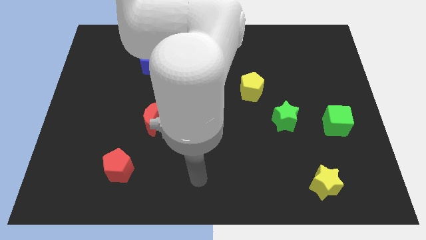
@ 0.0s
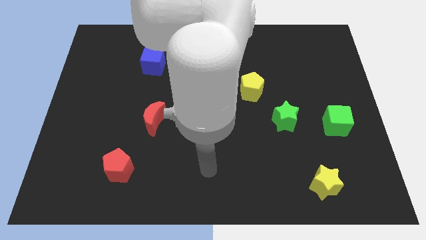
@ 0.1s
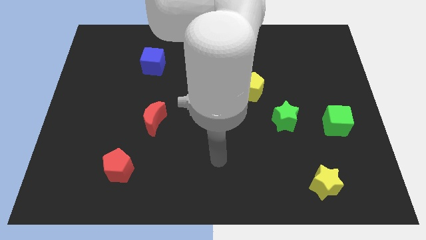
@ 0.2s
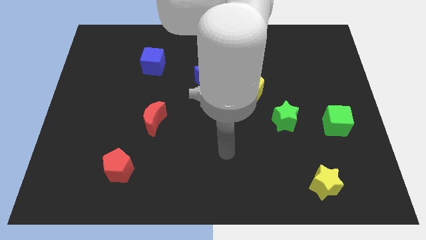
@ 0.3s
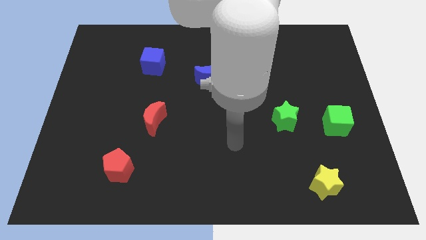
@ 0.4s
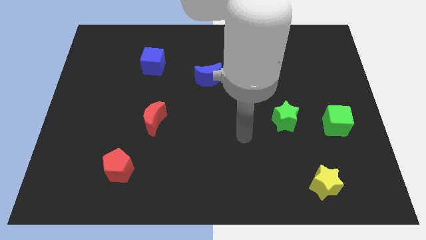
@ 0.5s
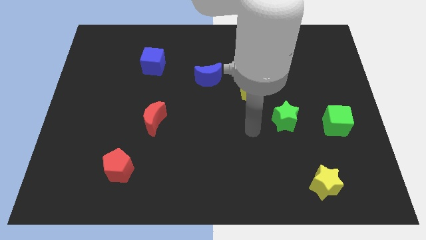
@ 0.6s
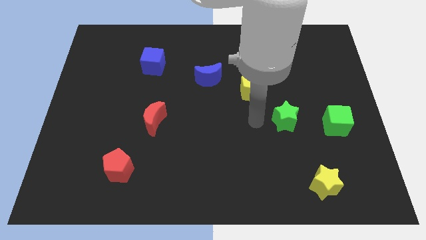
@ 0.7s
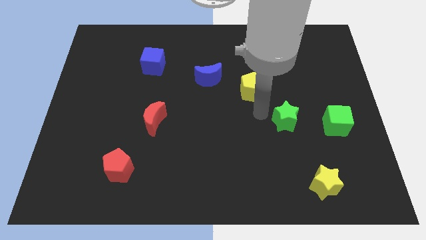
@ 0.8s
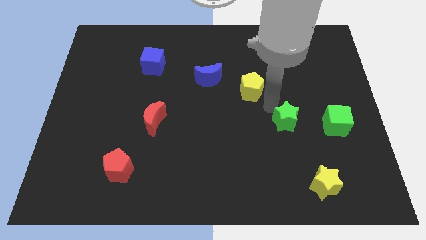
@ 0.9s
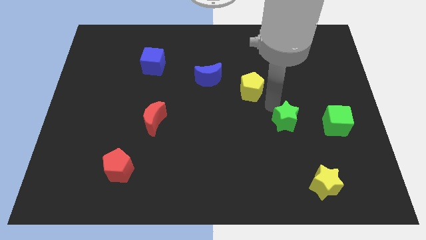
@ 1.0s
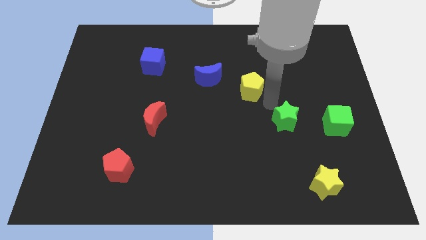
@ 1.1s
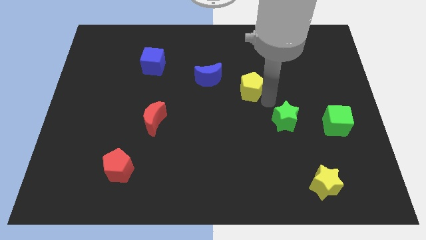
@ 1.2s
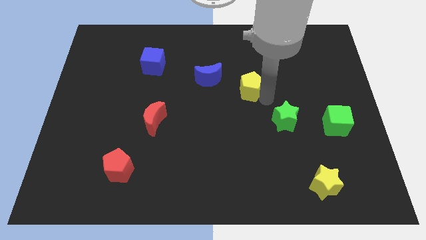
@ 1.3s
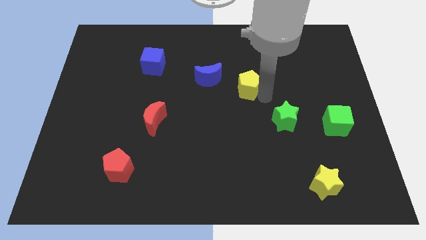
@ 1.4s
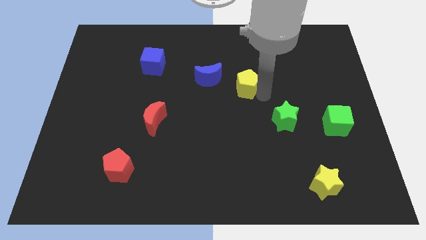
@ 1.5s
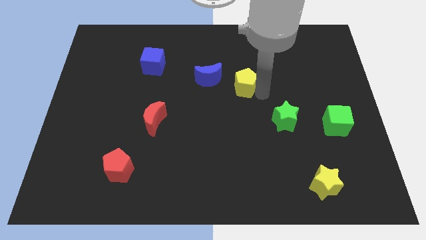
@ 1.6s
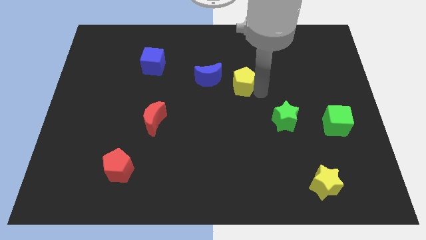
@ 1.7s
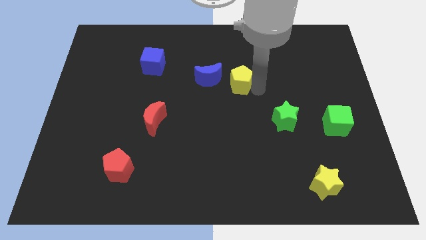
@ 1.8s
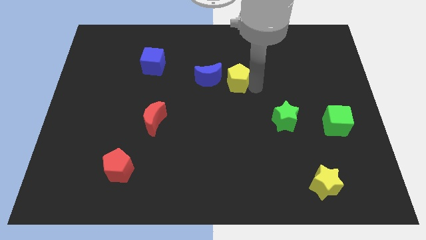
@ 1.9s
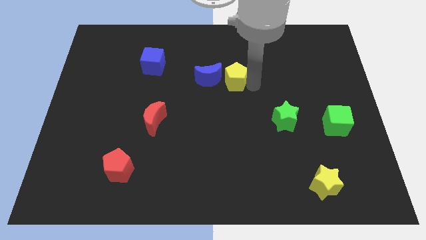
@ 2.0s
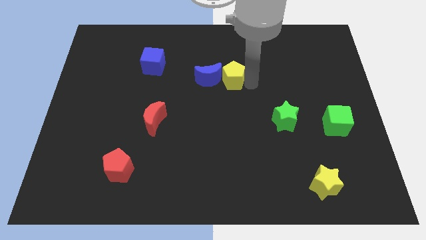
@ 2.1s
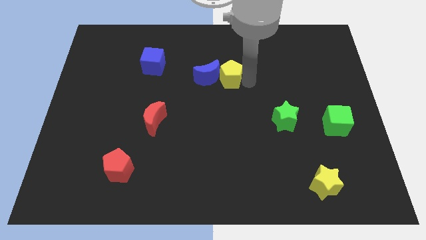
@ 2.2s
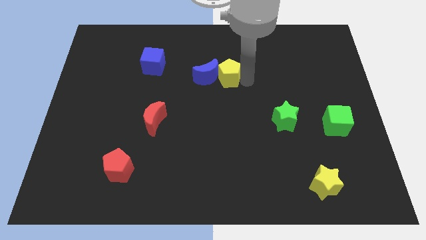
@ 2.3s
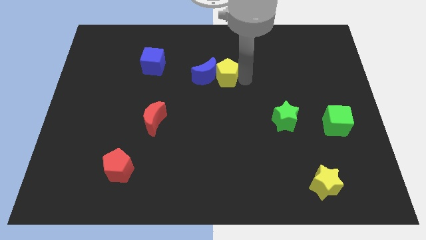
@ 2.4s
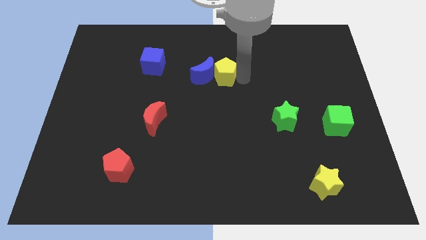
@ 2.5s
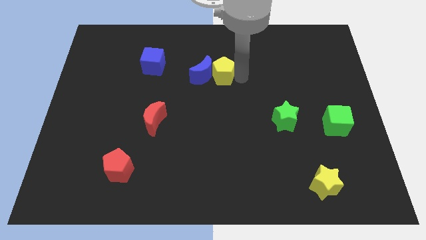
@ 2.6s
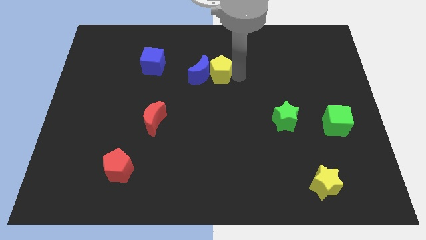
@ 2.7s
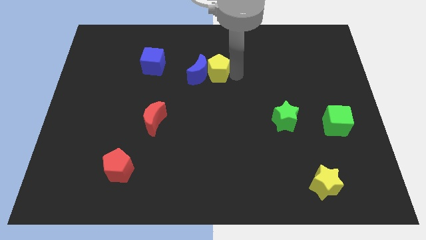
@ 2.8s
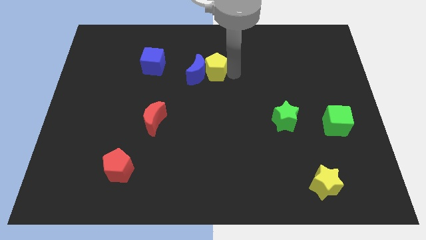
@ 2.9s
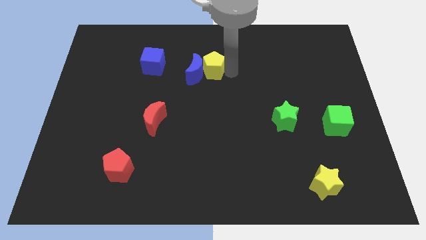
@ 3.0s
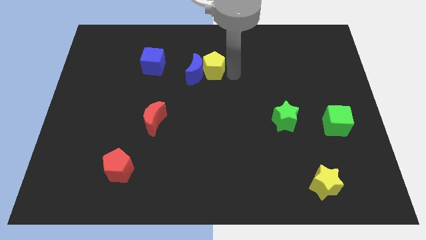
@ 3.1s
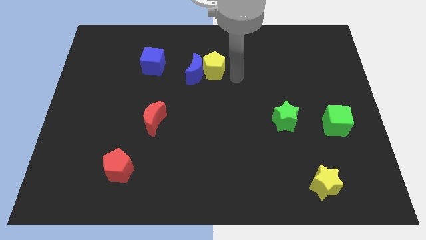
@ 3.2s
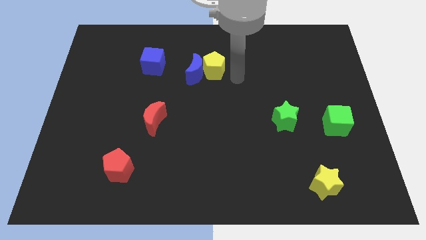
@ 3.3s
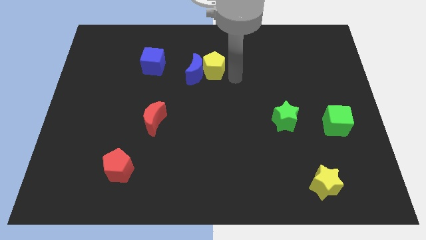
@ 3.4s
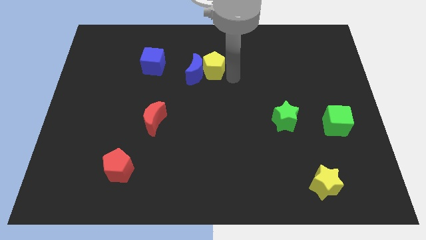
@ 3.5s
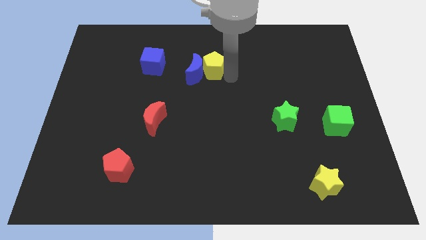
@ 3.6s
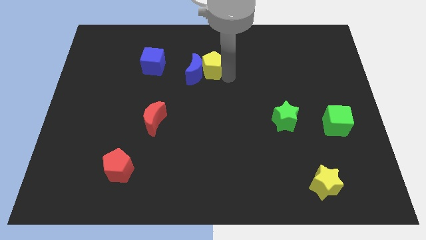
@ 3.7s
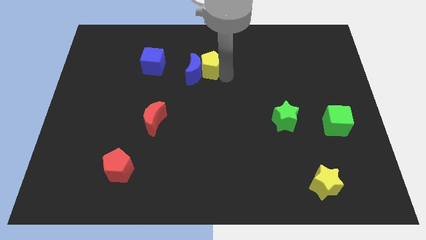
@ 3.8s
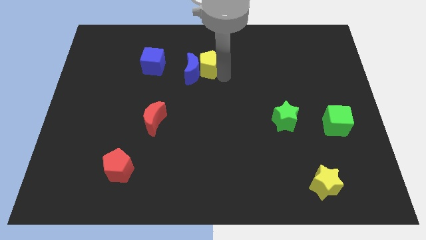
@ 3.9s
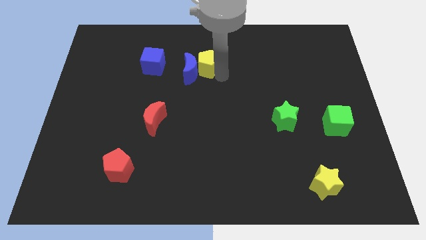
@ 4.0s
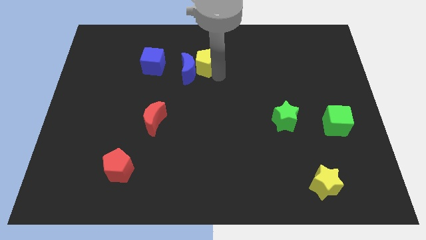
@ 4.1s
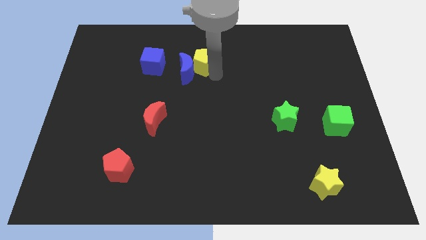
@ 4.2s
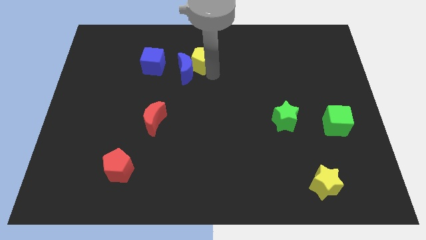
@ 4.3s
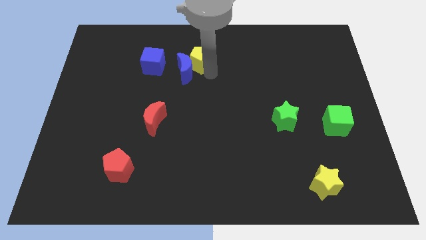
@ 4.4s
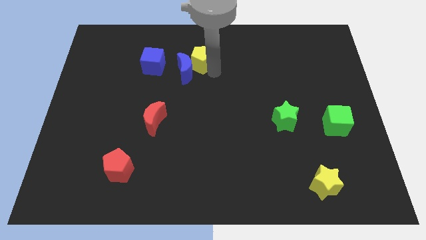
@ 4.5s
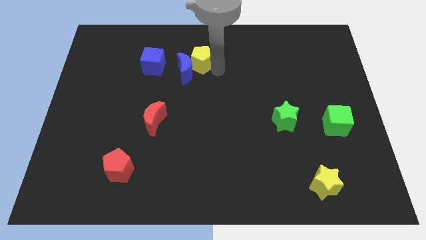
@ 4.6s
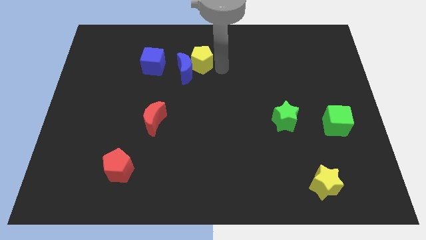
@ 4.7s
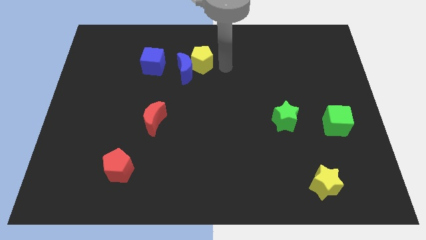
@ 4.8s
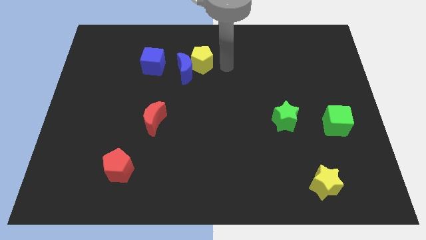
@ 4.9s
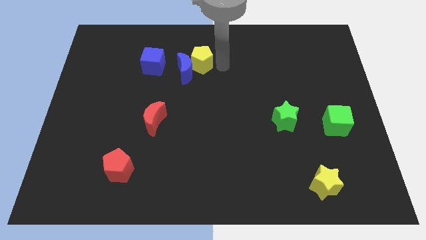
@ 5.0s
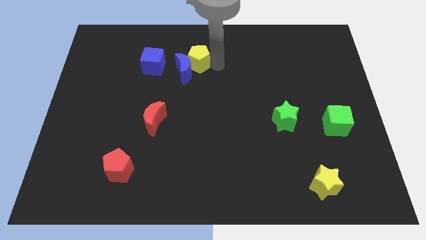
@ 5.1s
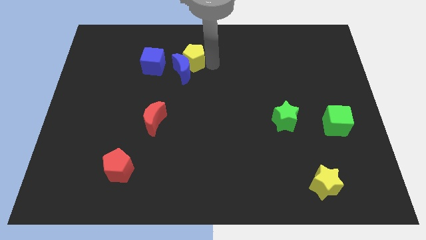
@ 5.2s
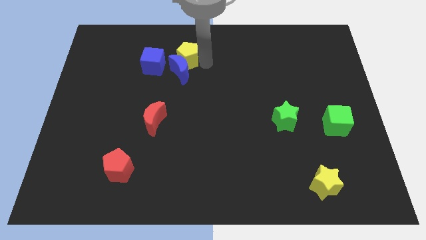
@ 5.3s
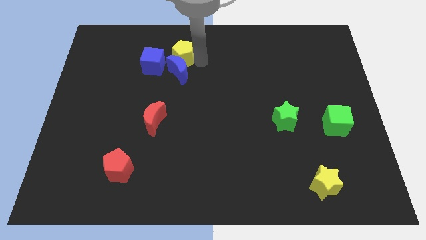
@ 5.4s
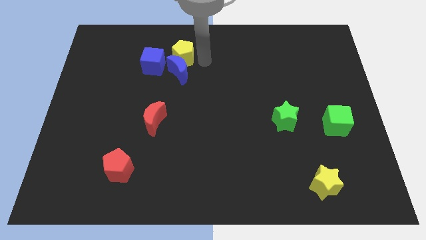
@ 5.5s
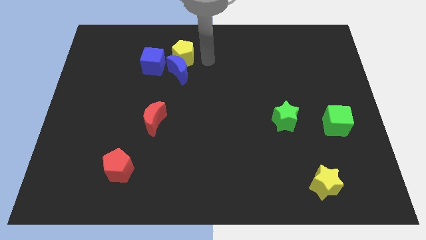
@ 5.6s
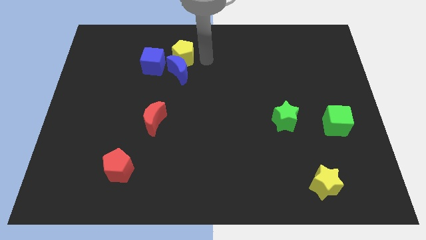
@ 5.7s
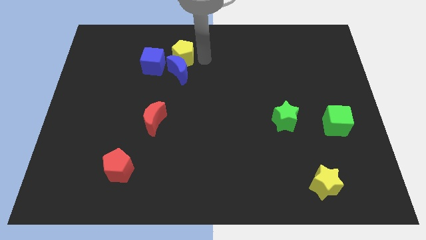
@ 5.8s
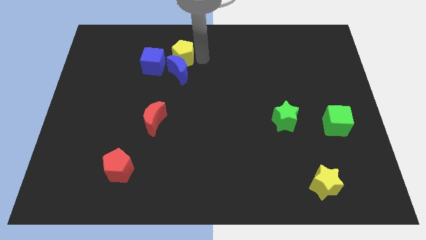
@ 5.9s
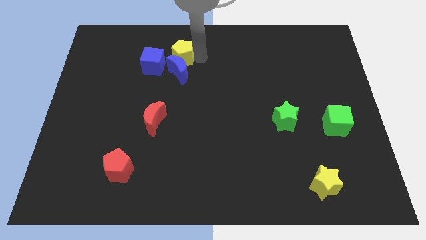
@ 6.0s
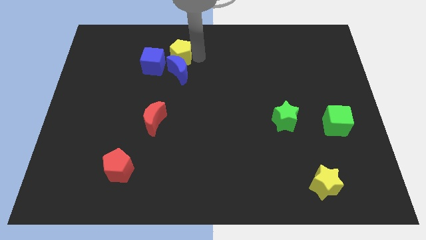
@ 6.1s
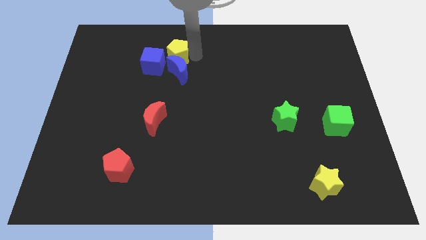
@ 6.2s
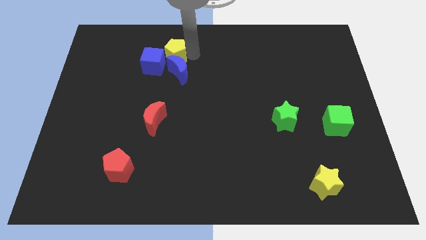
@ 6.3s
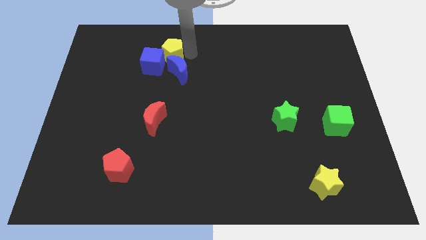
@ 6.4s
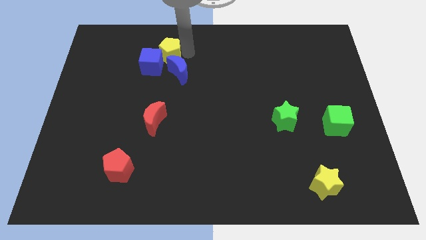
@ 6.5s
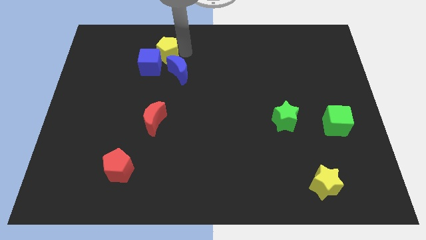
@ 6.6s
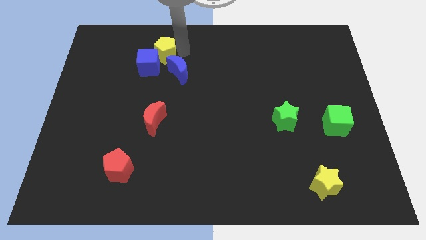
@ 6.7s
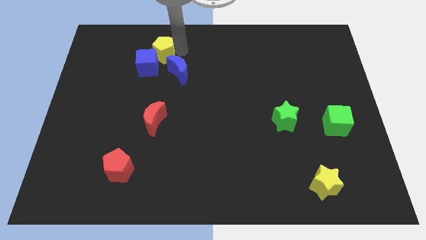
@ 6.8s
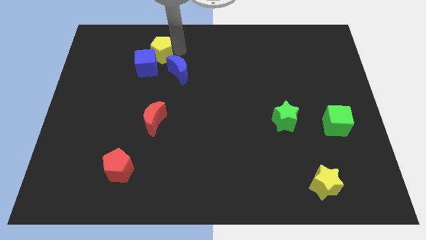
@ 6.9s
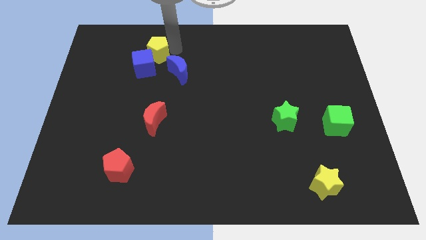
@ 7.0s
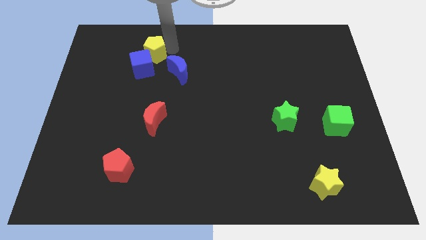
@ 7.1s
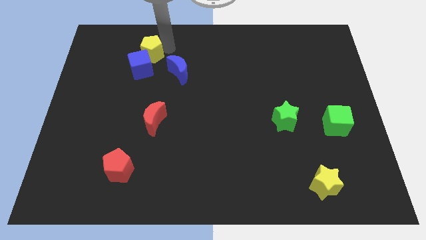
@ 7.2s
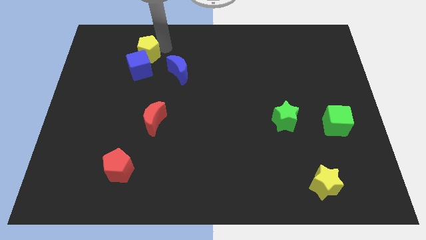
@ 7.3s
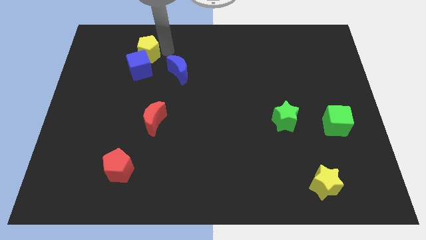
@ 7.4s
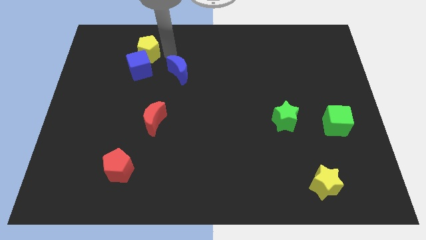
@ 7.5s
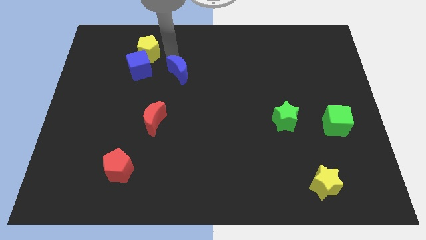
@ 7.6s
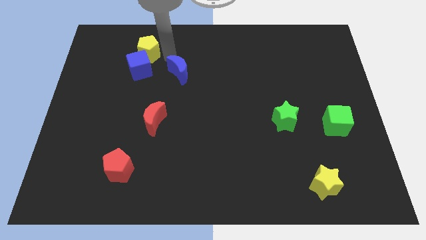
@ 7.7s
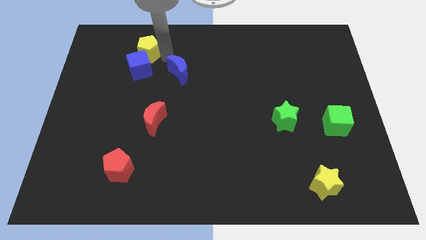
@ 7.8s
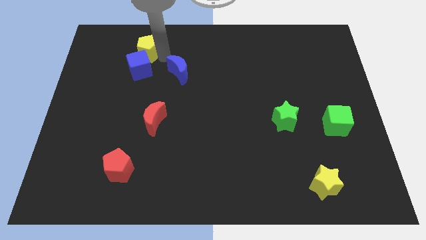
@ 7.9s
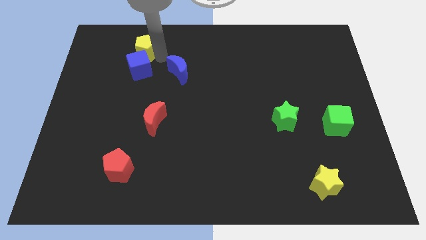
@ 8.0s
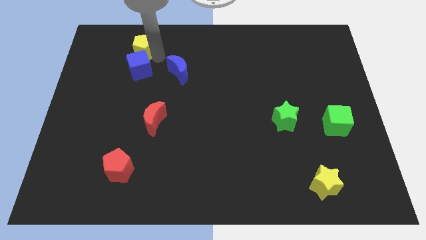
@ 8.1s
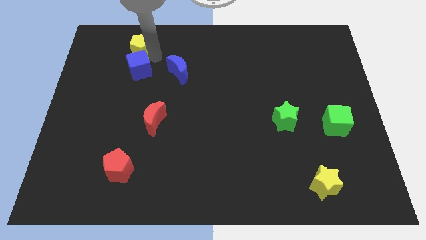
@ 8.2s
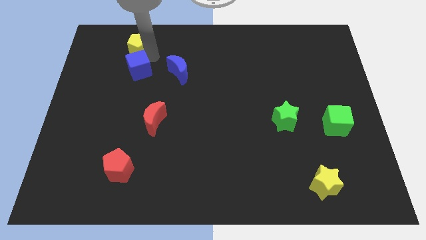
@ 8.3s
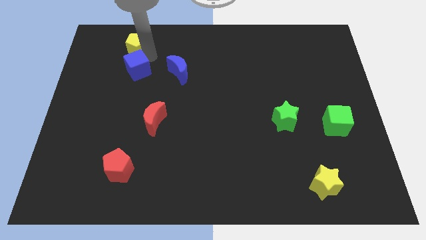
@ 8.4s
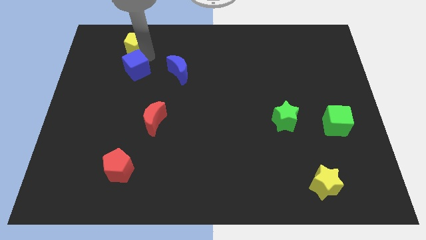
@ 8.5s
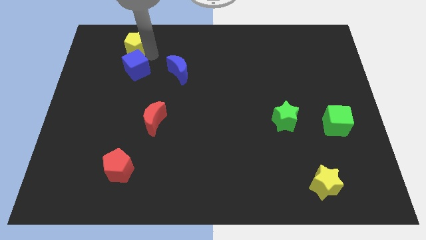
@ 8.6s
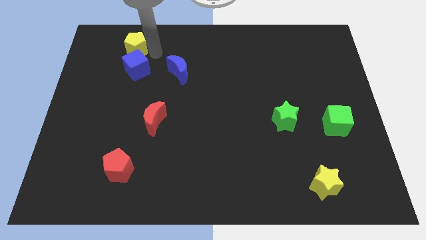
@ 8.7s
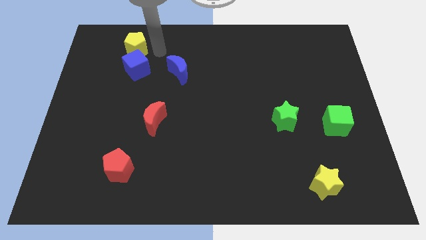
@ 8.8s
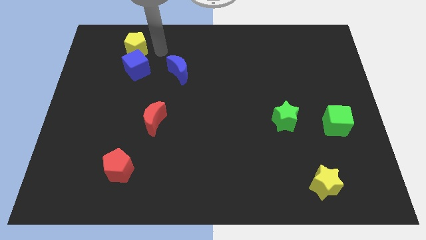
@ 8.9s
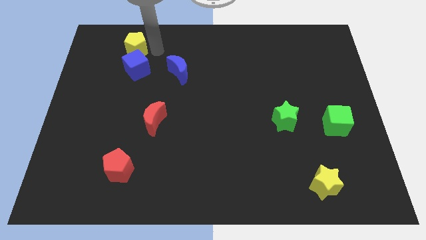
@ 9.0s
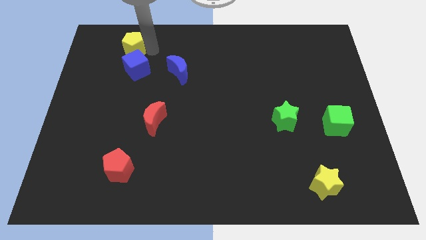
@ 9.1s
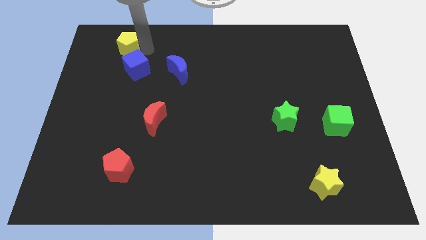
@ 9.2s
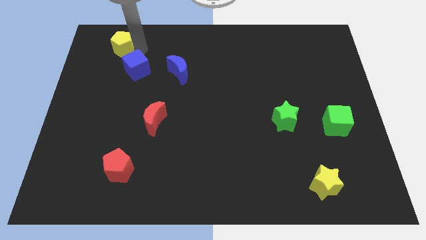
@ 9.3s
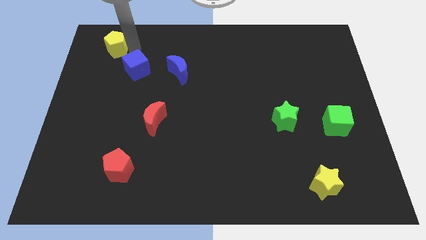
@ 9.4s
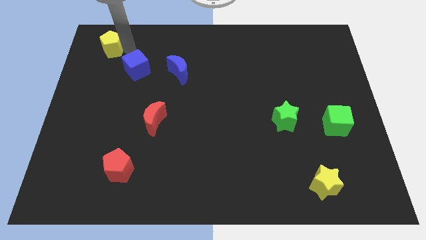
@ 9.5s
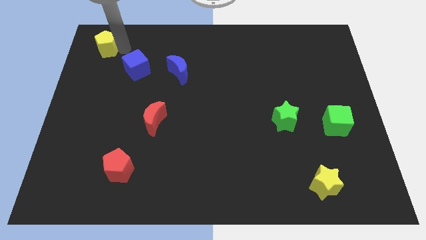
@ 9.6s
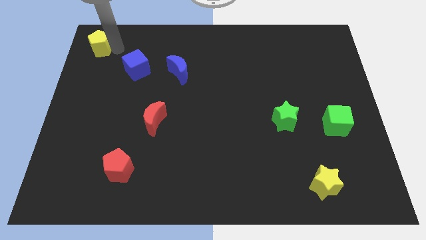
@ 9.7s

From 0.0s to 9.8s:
put the yellow pentagon to the top left
